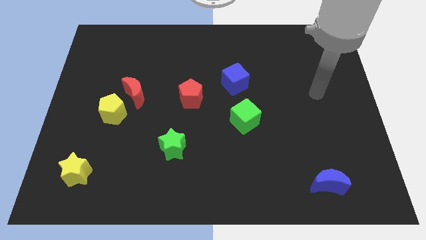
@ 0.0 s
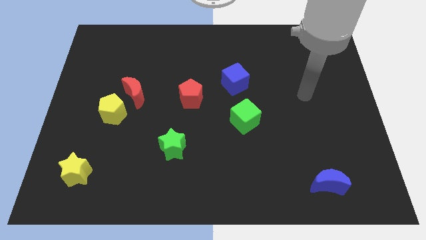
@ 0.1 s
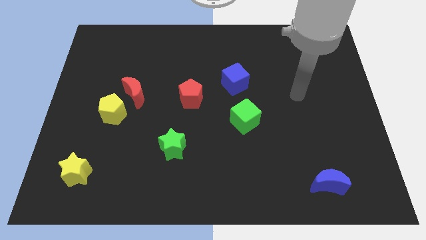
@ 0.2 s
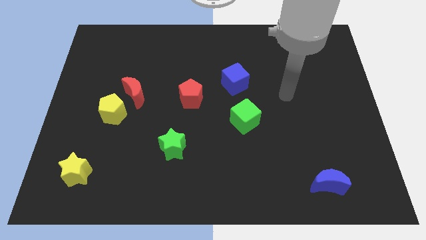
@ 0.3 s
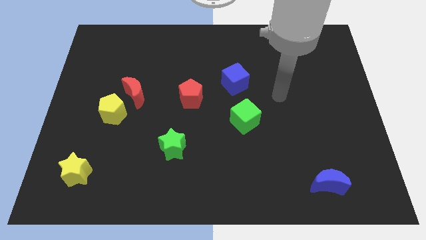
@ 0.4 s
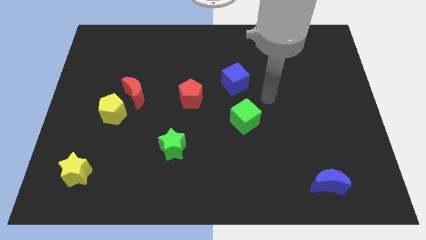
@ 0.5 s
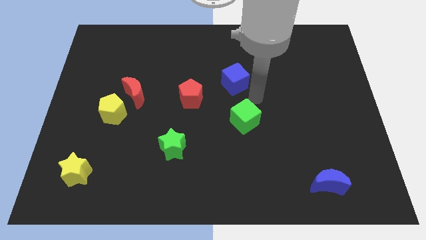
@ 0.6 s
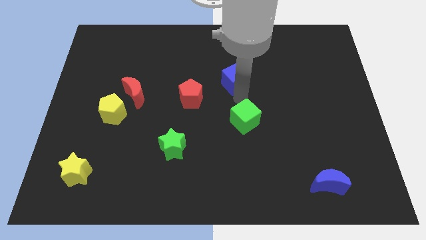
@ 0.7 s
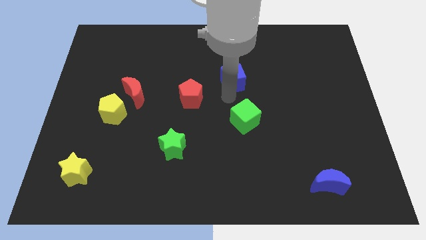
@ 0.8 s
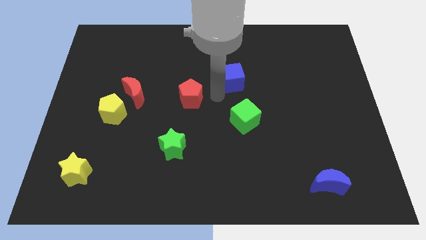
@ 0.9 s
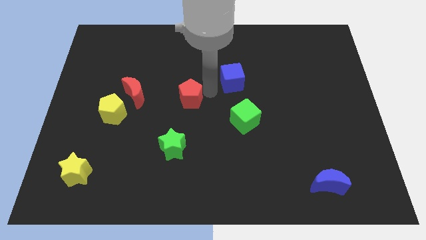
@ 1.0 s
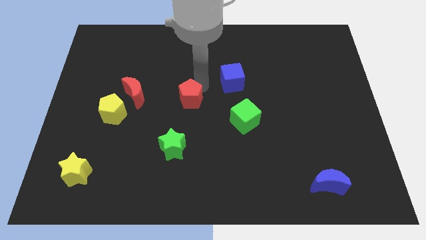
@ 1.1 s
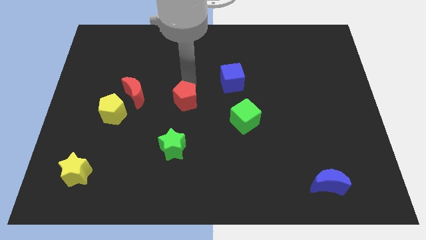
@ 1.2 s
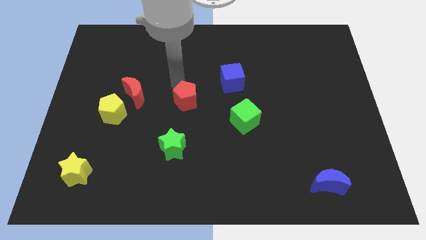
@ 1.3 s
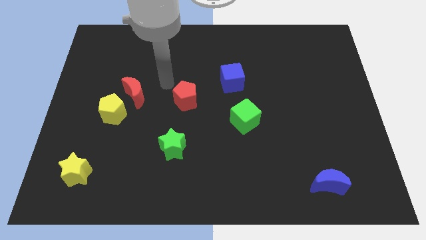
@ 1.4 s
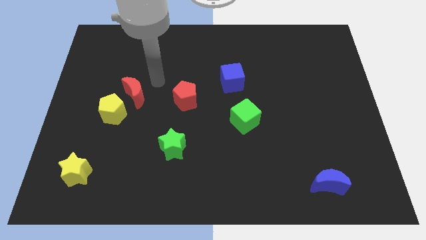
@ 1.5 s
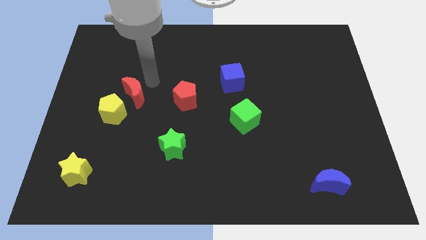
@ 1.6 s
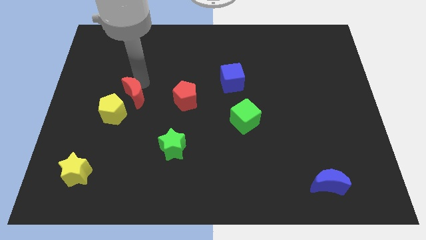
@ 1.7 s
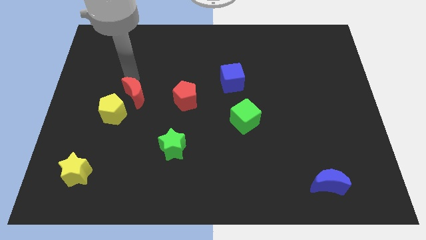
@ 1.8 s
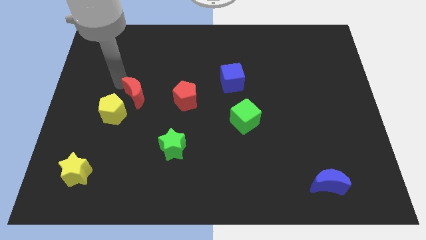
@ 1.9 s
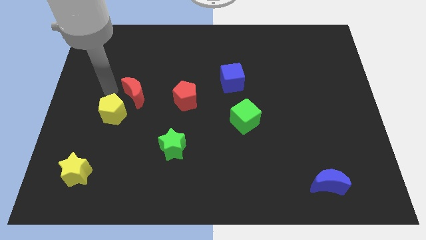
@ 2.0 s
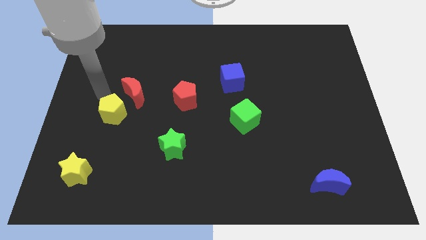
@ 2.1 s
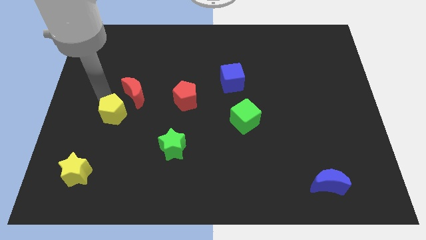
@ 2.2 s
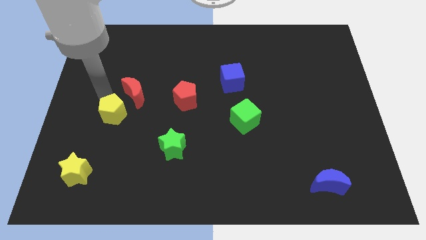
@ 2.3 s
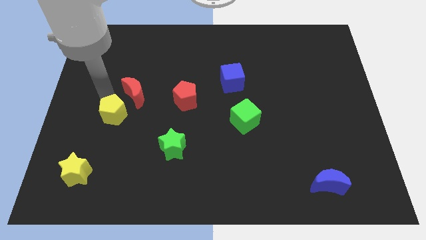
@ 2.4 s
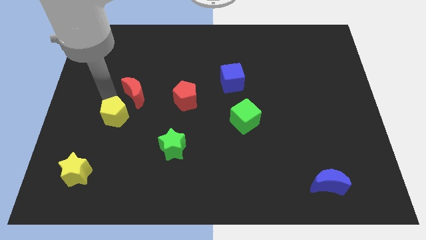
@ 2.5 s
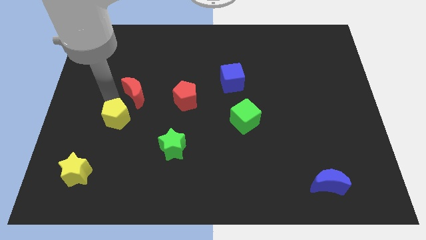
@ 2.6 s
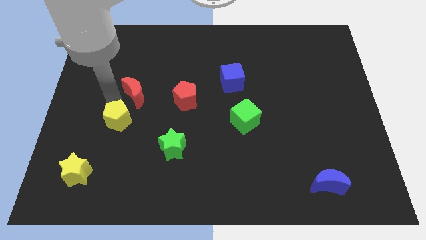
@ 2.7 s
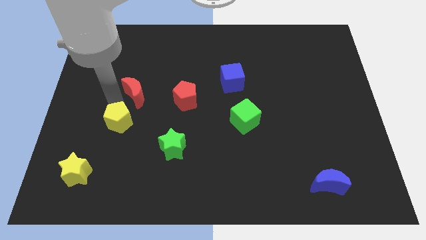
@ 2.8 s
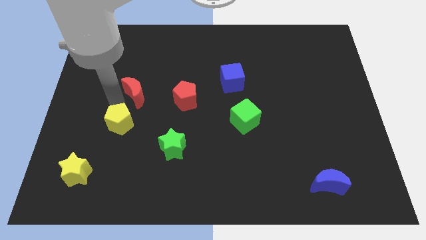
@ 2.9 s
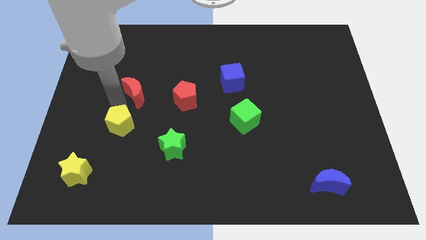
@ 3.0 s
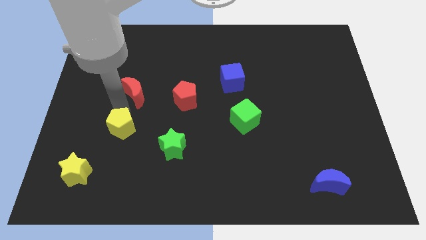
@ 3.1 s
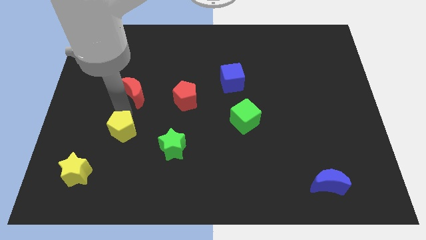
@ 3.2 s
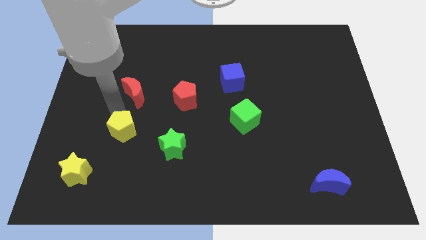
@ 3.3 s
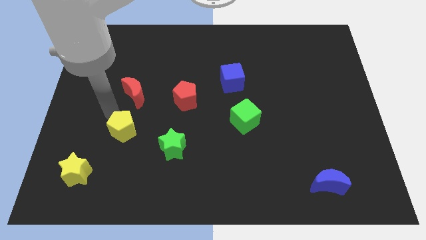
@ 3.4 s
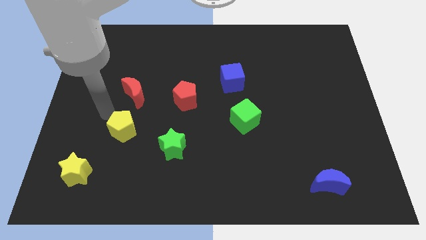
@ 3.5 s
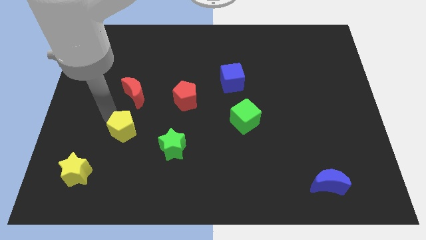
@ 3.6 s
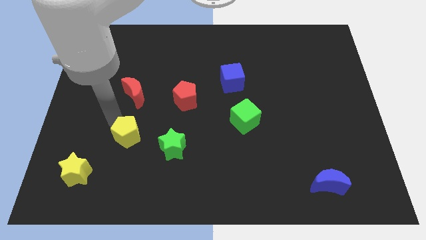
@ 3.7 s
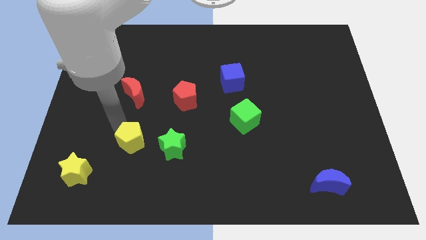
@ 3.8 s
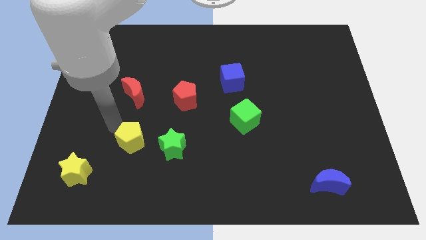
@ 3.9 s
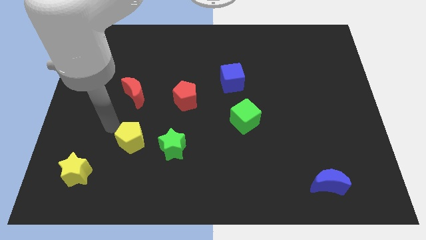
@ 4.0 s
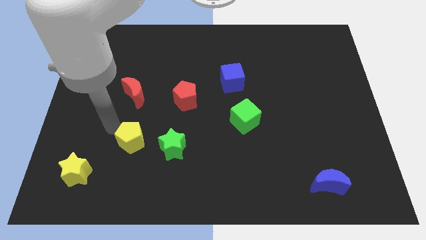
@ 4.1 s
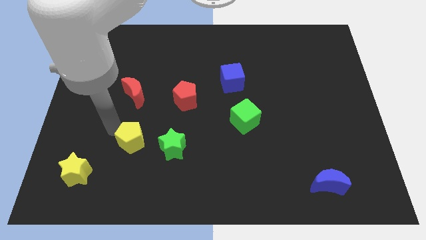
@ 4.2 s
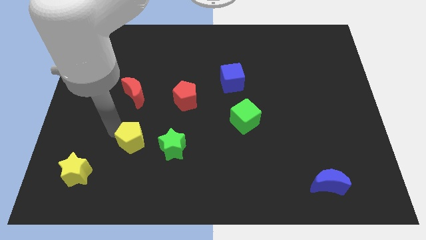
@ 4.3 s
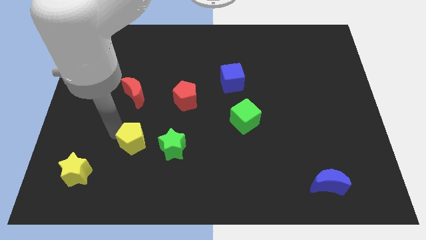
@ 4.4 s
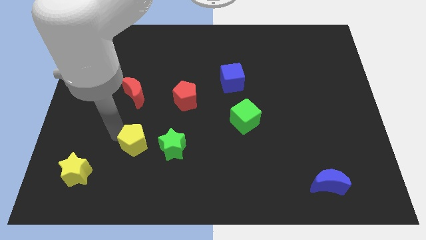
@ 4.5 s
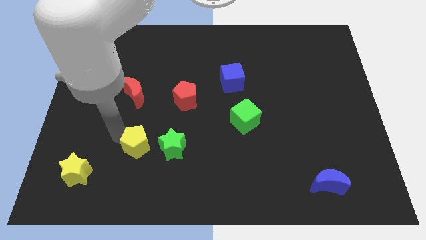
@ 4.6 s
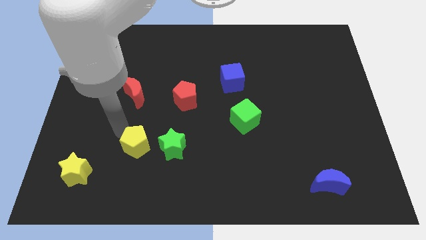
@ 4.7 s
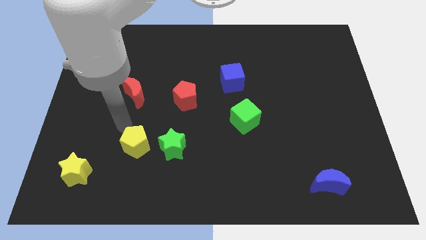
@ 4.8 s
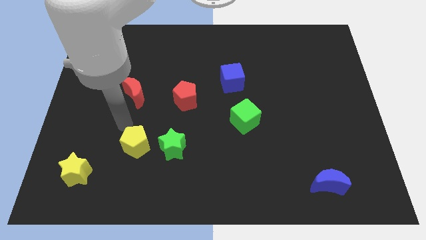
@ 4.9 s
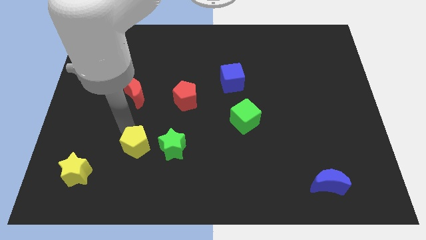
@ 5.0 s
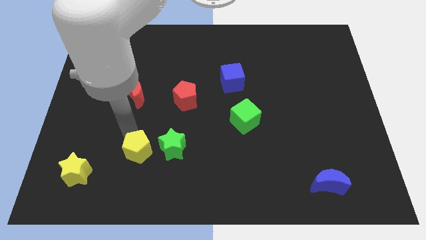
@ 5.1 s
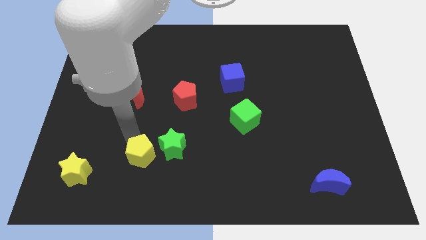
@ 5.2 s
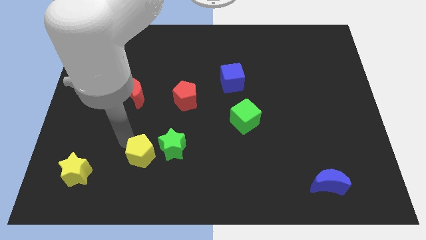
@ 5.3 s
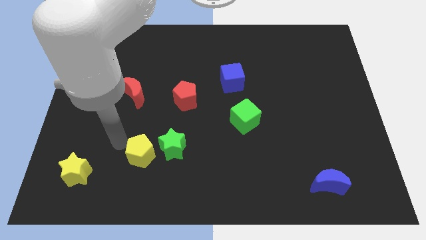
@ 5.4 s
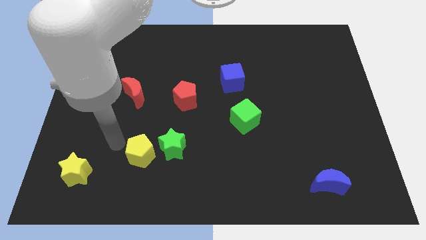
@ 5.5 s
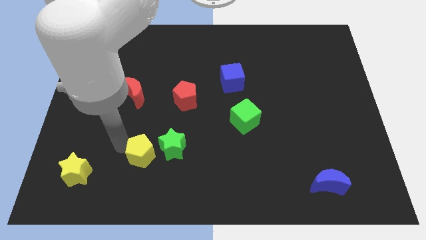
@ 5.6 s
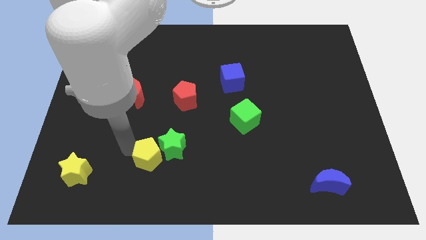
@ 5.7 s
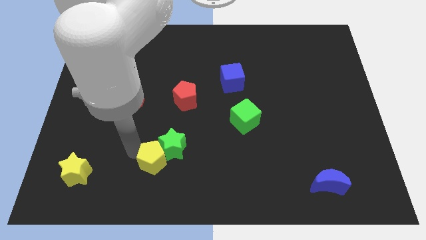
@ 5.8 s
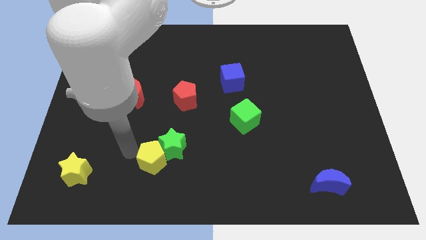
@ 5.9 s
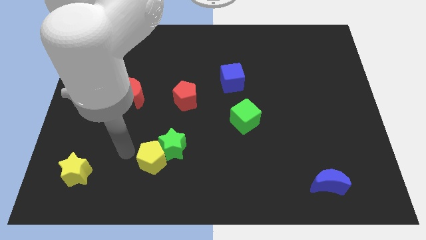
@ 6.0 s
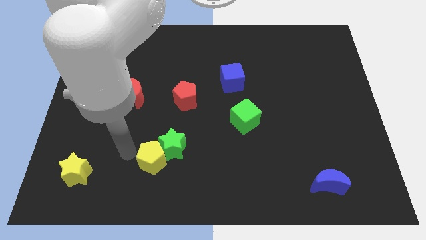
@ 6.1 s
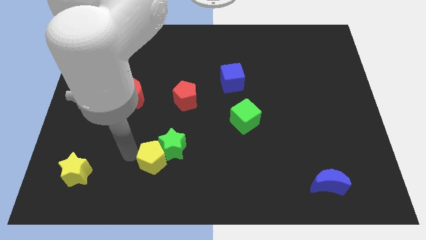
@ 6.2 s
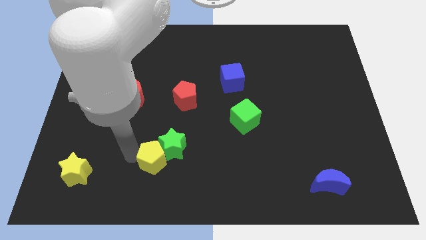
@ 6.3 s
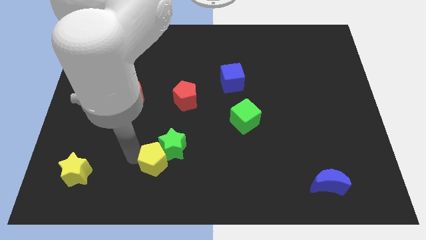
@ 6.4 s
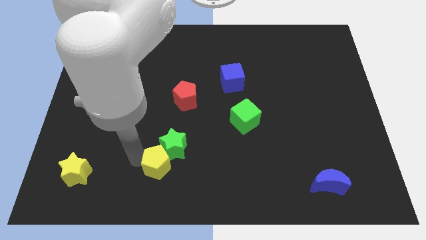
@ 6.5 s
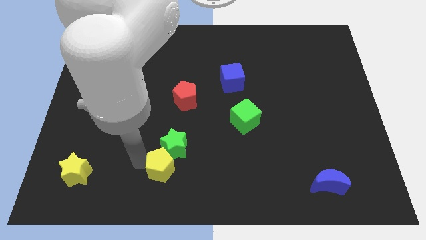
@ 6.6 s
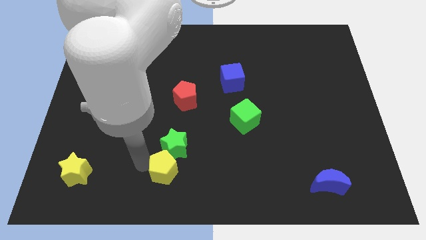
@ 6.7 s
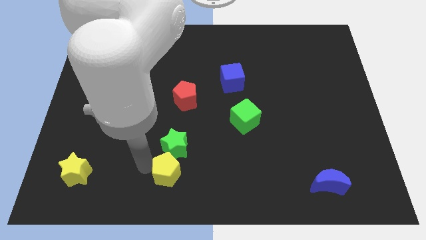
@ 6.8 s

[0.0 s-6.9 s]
move the yellow pentagon to the bottom right of the green star
